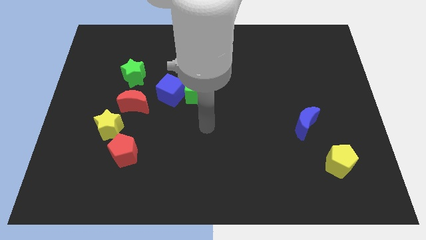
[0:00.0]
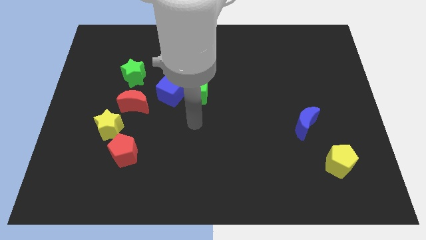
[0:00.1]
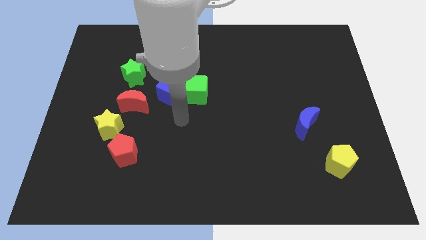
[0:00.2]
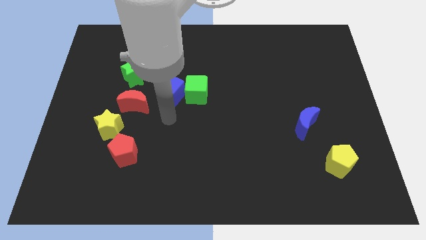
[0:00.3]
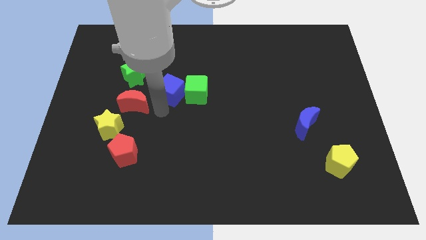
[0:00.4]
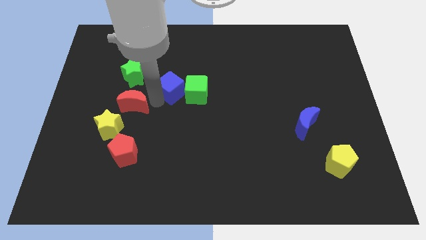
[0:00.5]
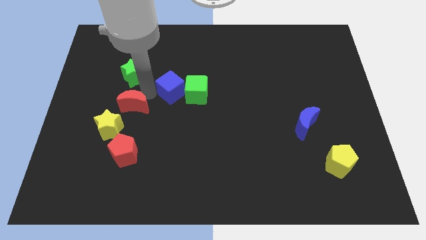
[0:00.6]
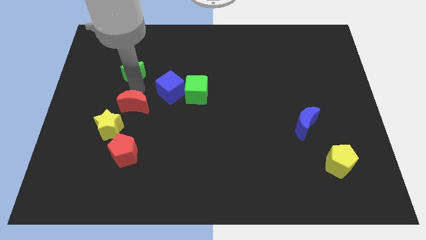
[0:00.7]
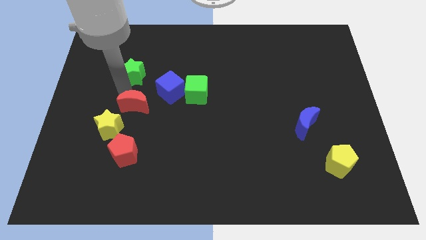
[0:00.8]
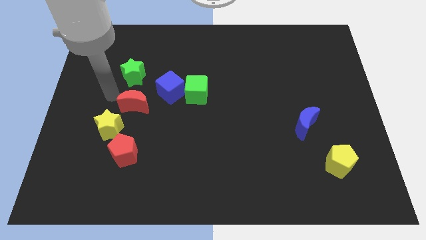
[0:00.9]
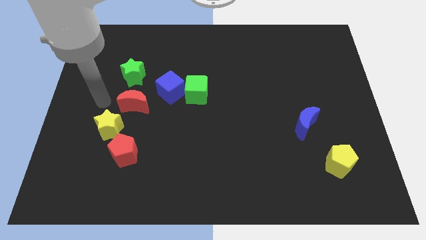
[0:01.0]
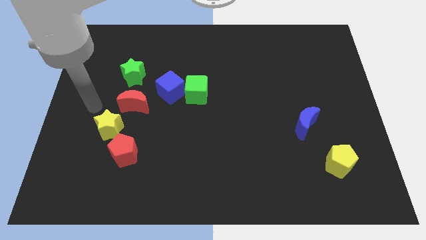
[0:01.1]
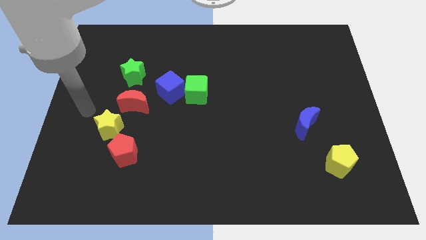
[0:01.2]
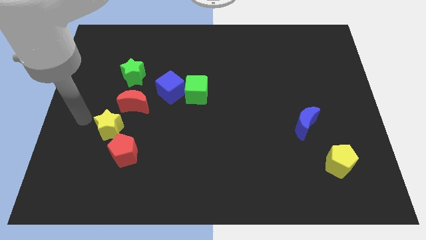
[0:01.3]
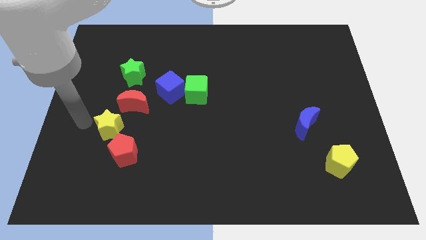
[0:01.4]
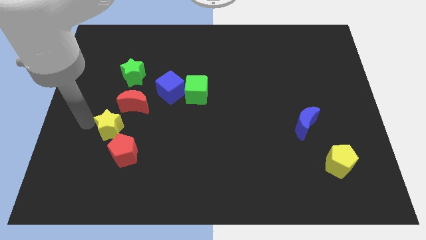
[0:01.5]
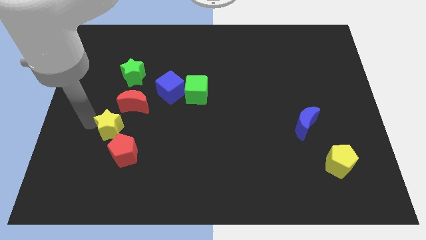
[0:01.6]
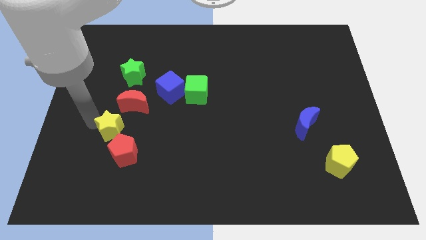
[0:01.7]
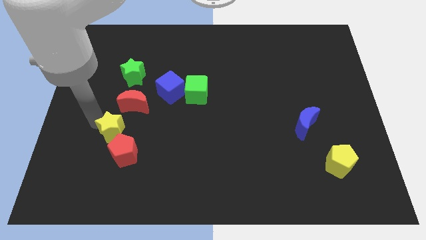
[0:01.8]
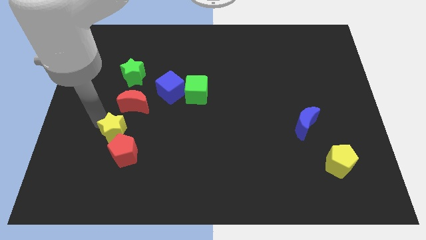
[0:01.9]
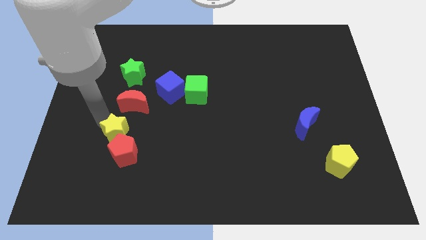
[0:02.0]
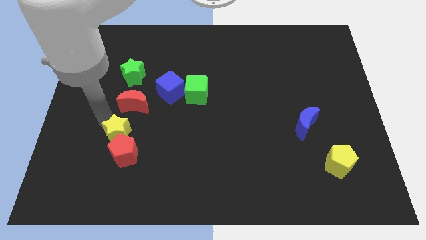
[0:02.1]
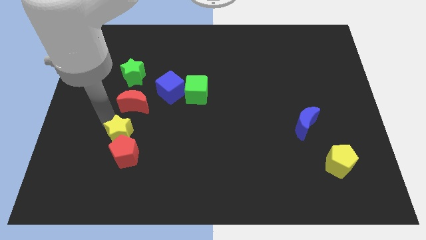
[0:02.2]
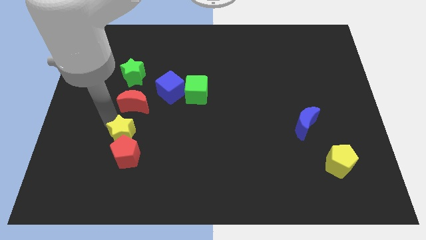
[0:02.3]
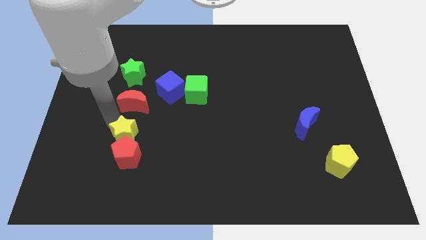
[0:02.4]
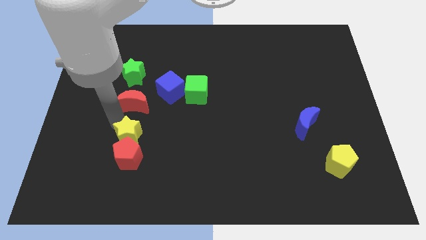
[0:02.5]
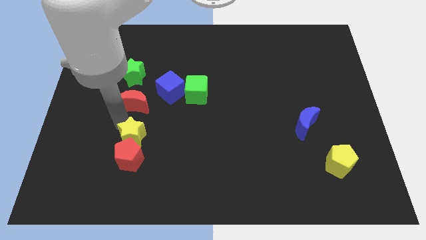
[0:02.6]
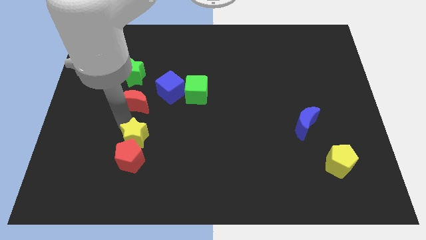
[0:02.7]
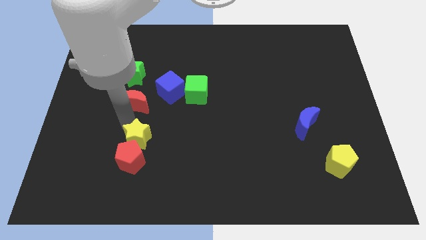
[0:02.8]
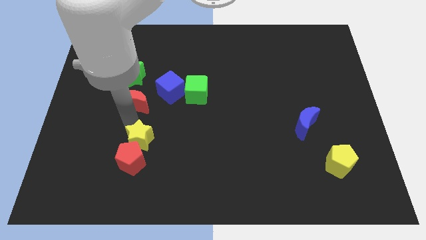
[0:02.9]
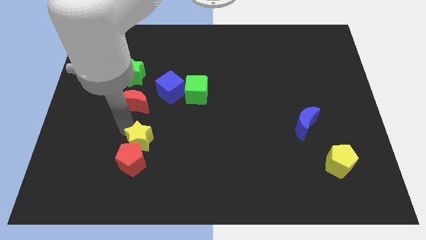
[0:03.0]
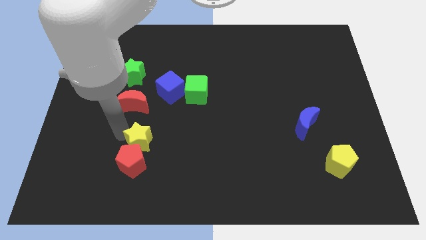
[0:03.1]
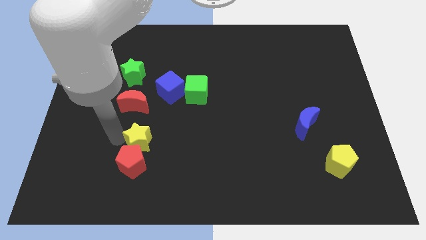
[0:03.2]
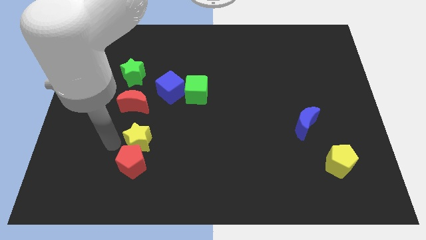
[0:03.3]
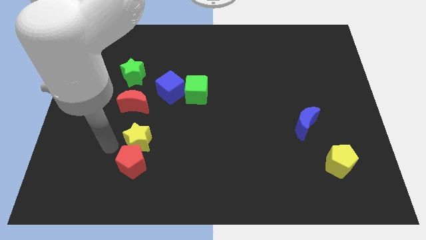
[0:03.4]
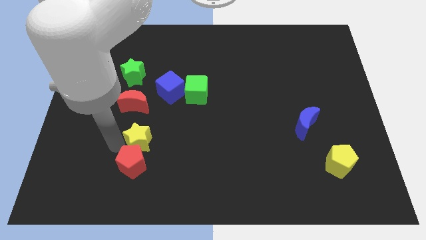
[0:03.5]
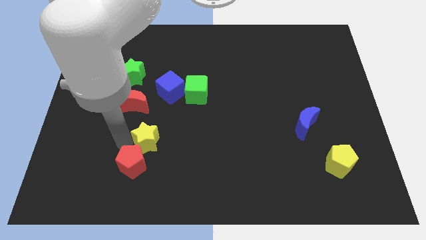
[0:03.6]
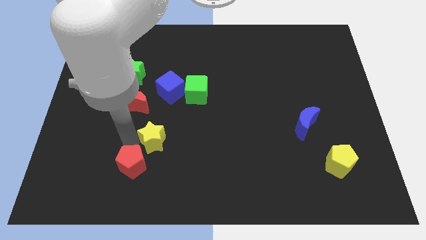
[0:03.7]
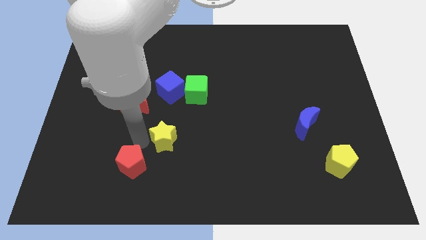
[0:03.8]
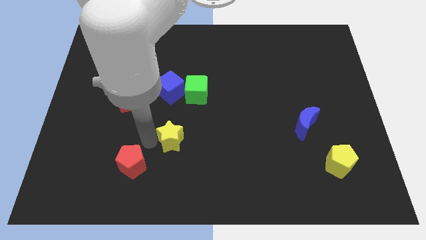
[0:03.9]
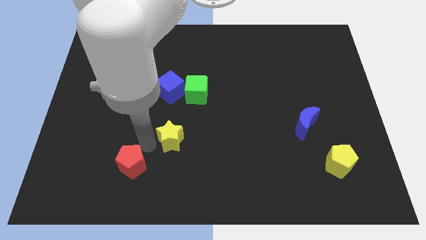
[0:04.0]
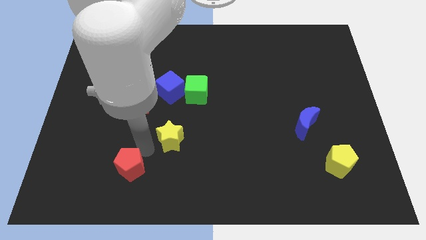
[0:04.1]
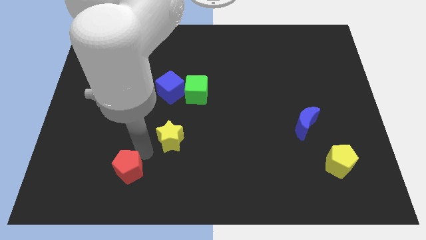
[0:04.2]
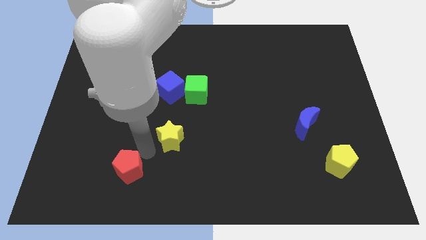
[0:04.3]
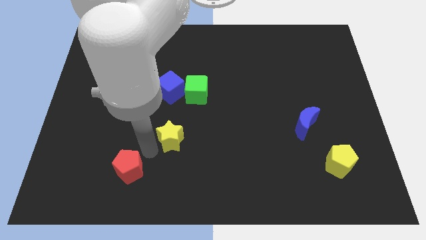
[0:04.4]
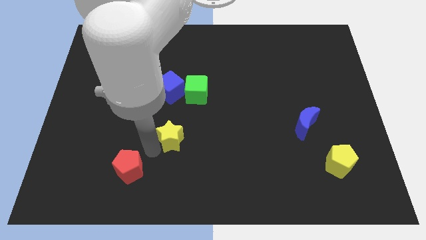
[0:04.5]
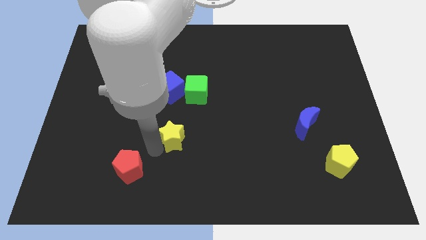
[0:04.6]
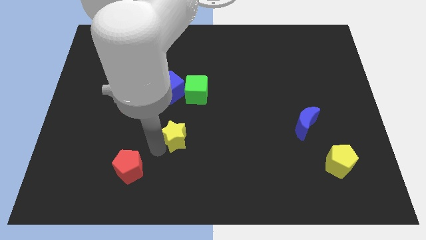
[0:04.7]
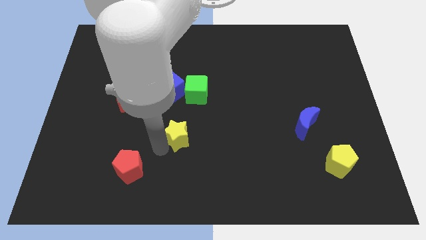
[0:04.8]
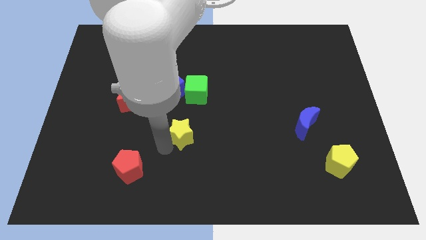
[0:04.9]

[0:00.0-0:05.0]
slide the yellow star to the center

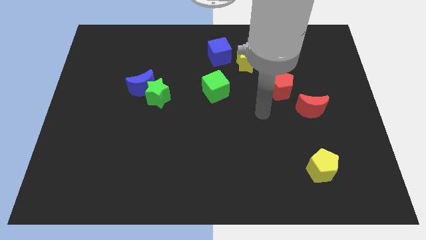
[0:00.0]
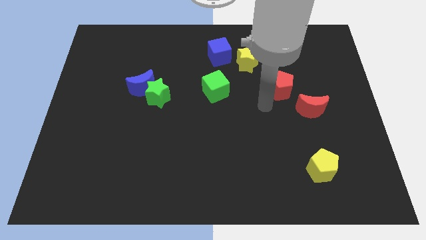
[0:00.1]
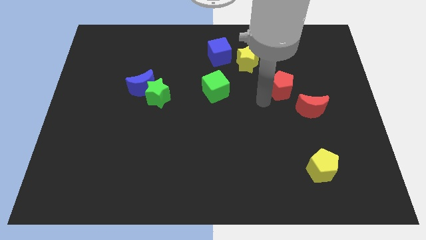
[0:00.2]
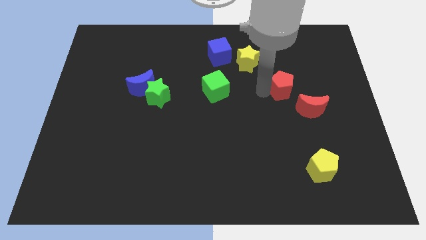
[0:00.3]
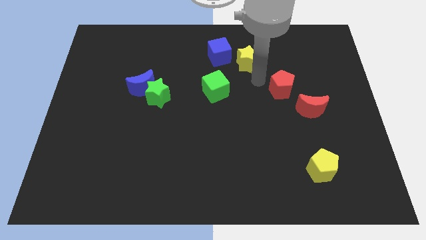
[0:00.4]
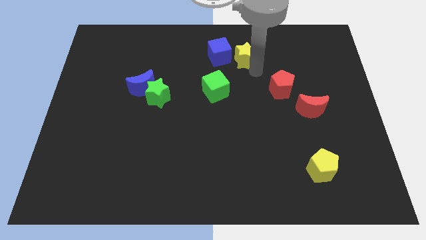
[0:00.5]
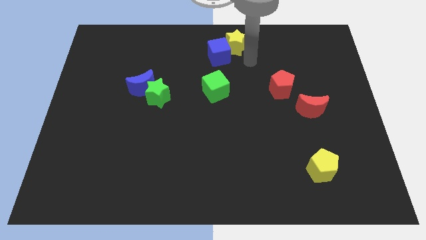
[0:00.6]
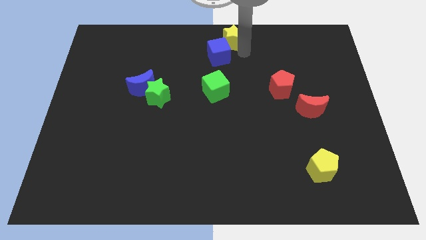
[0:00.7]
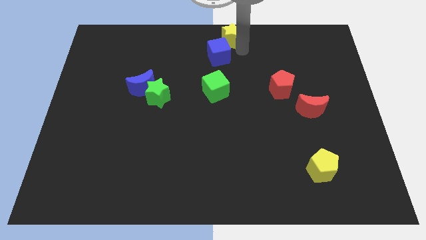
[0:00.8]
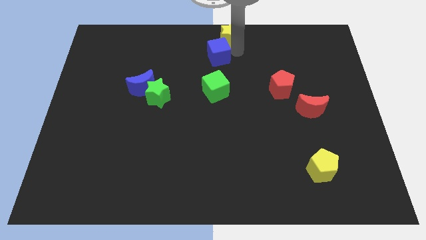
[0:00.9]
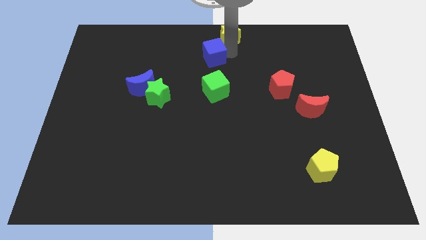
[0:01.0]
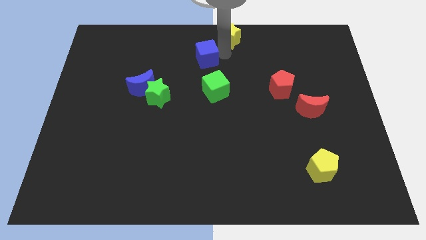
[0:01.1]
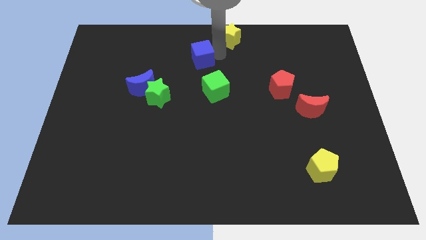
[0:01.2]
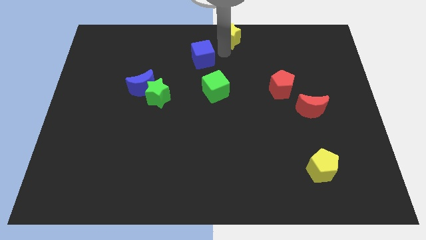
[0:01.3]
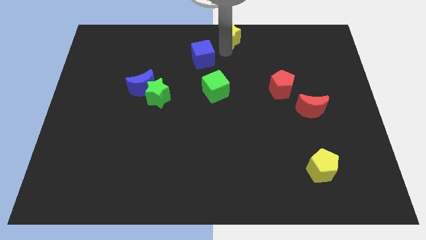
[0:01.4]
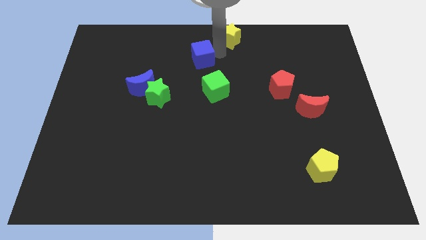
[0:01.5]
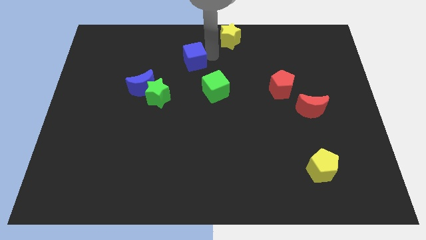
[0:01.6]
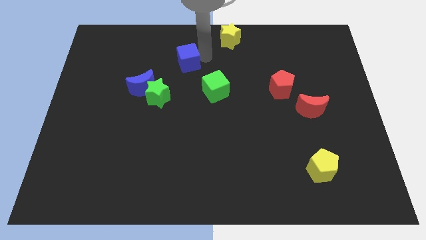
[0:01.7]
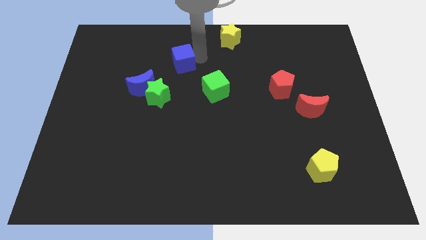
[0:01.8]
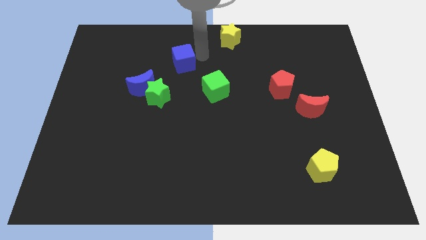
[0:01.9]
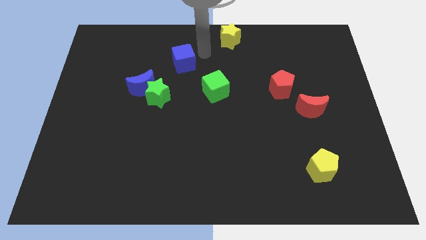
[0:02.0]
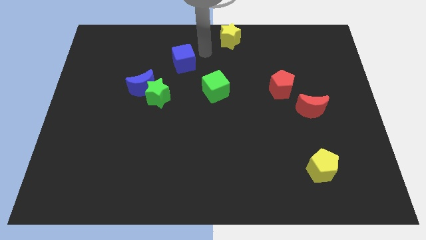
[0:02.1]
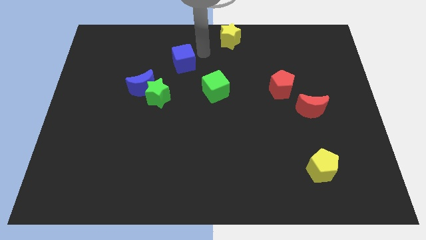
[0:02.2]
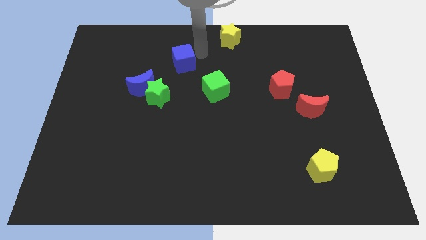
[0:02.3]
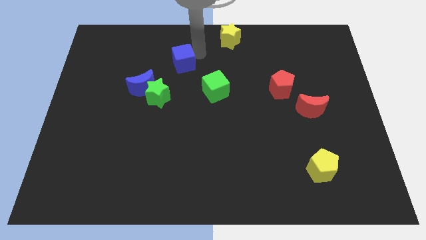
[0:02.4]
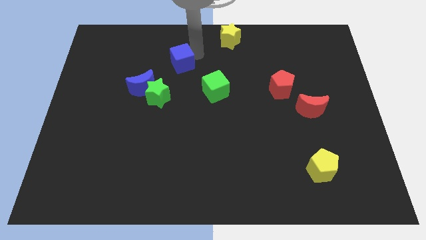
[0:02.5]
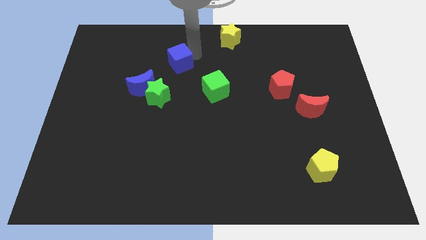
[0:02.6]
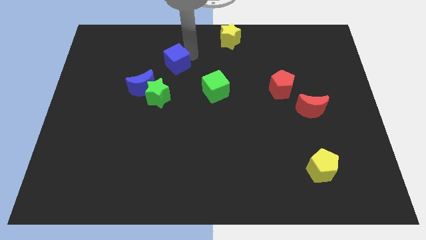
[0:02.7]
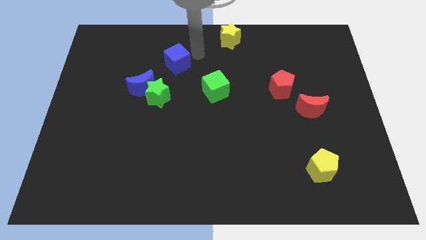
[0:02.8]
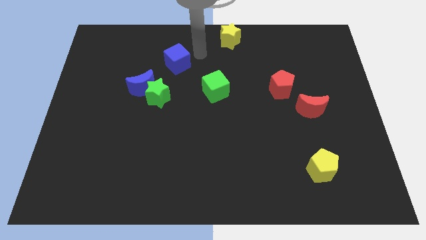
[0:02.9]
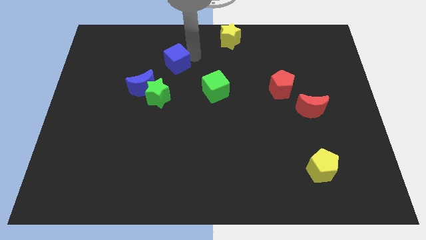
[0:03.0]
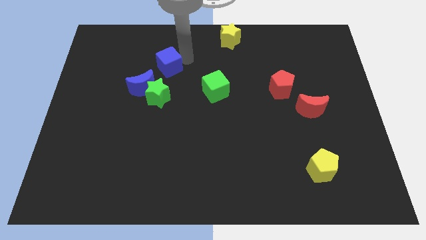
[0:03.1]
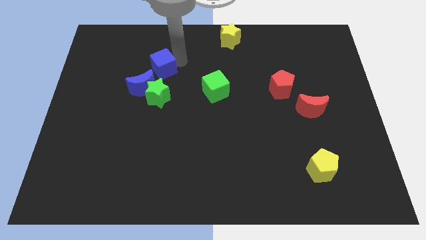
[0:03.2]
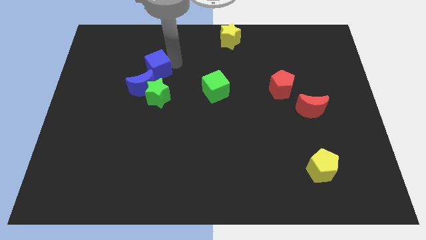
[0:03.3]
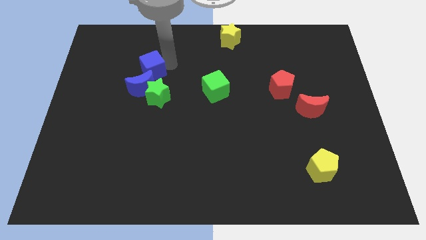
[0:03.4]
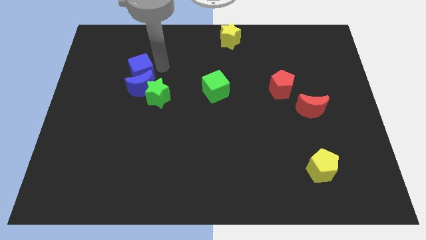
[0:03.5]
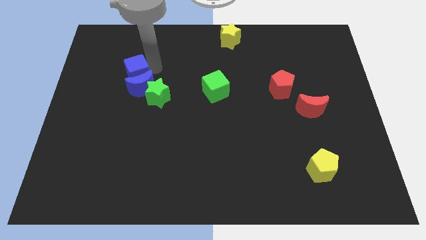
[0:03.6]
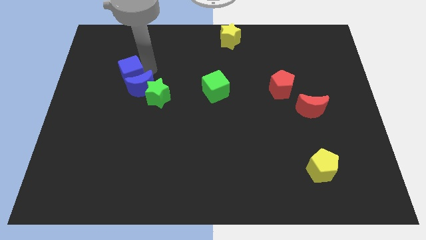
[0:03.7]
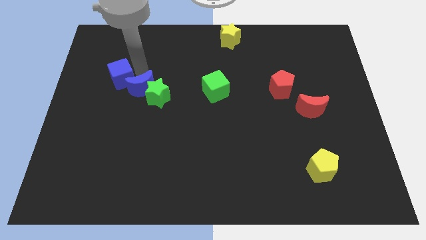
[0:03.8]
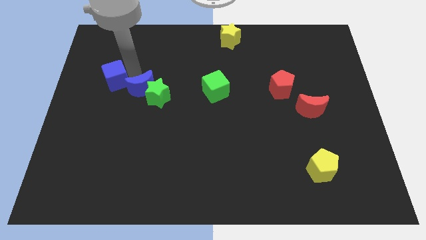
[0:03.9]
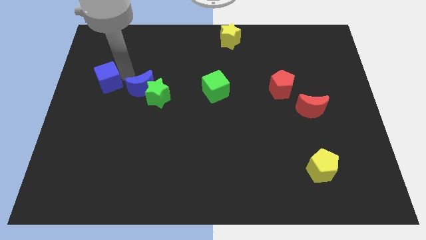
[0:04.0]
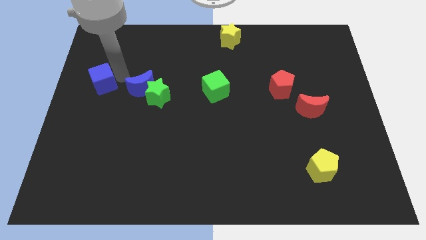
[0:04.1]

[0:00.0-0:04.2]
slide the blue cube to the center left
